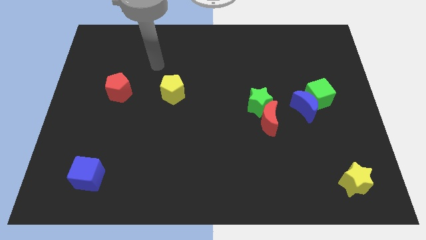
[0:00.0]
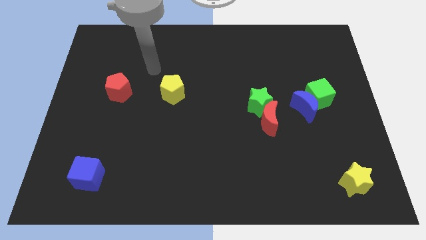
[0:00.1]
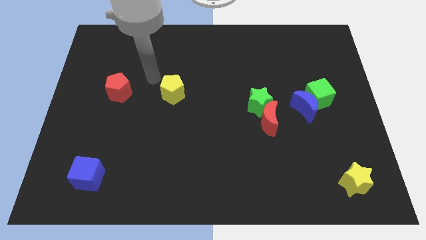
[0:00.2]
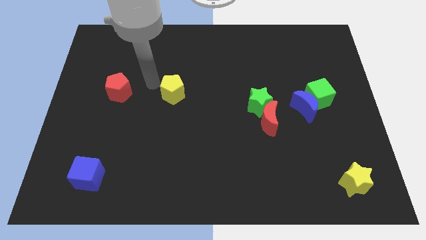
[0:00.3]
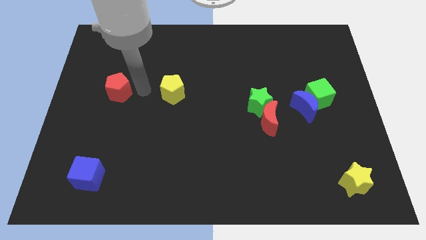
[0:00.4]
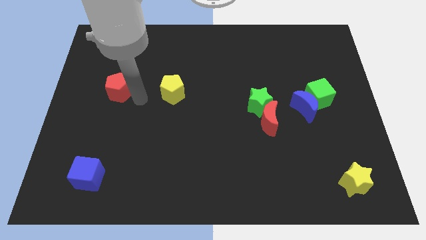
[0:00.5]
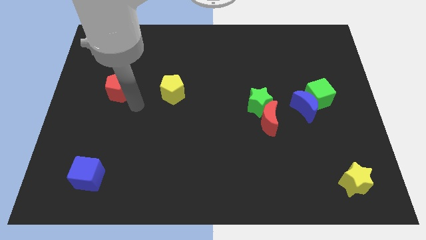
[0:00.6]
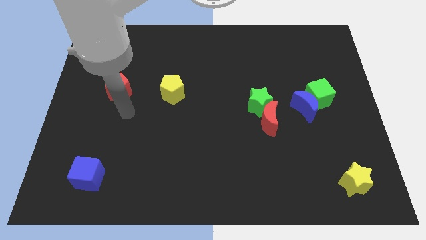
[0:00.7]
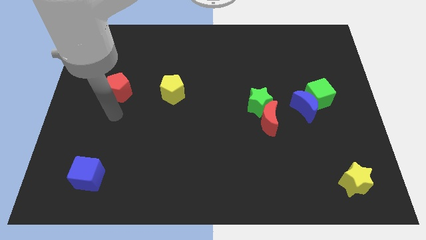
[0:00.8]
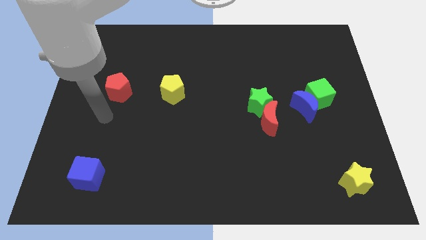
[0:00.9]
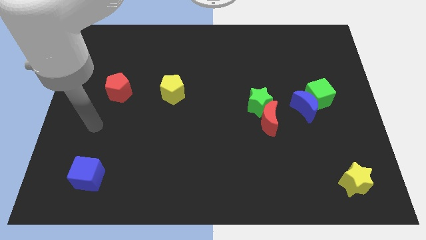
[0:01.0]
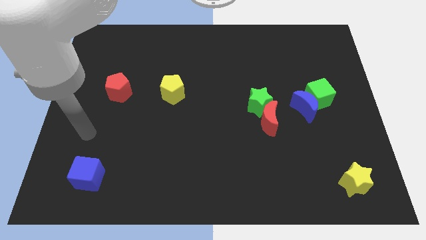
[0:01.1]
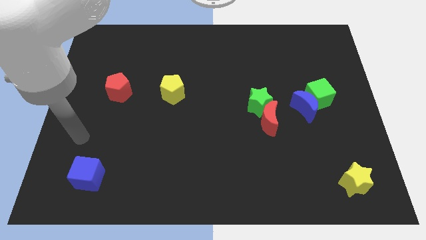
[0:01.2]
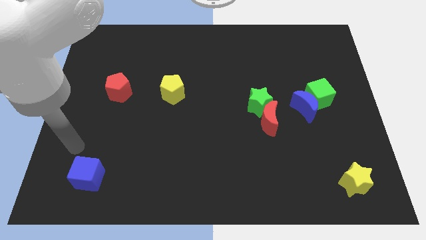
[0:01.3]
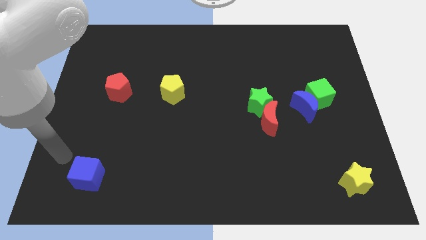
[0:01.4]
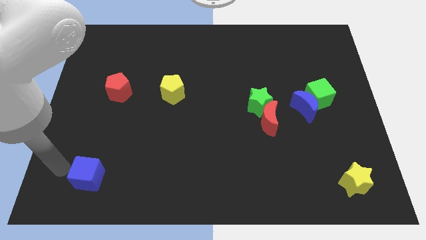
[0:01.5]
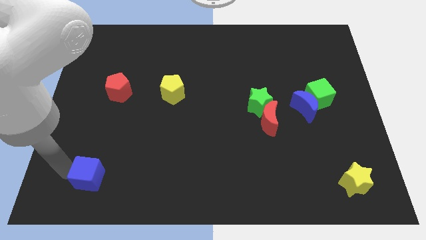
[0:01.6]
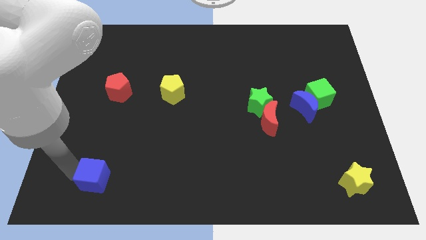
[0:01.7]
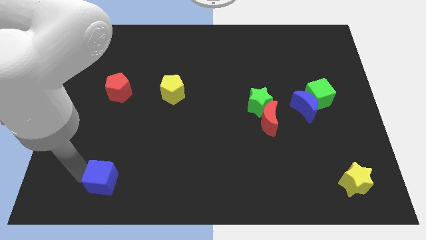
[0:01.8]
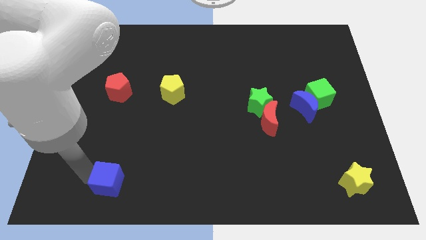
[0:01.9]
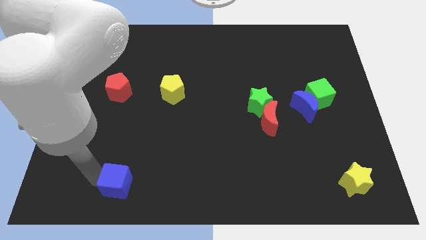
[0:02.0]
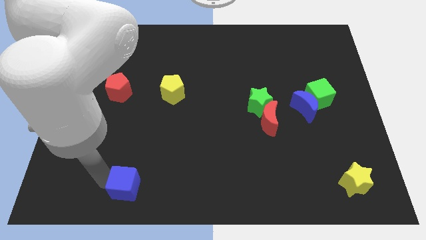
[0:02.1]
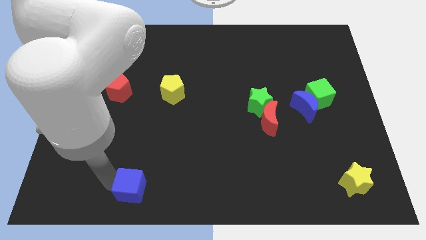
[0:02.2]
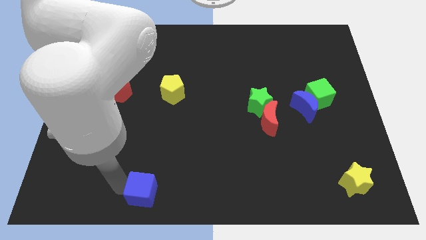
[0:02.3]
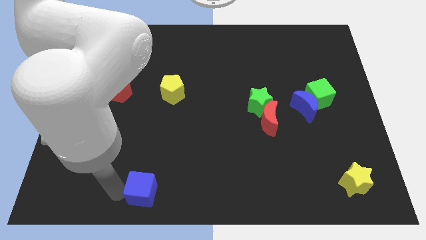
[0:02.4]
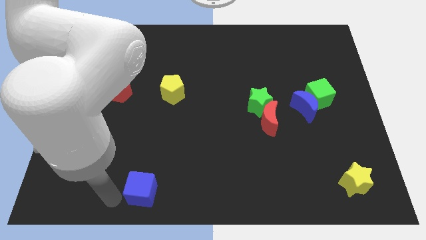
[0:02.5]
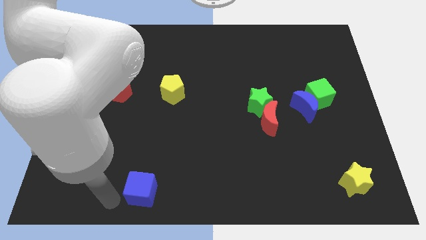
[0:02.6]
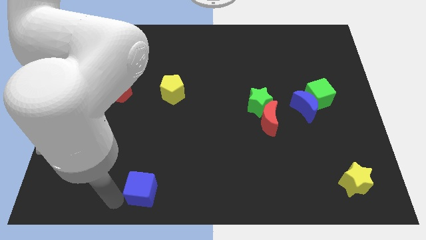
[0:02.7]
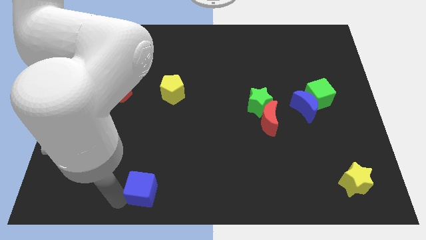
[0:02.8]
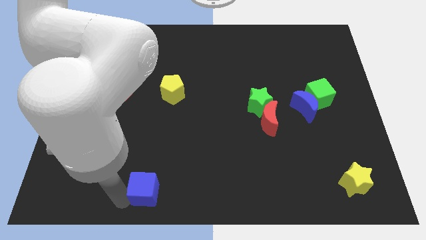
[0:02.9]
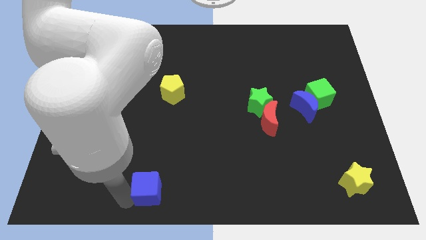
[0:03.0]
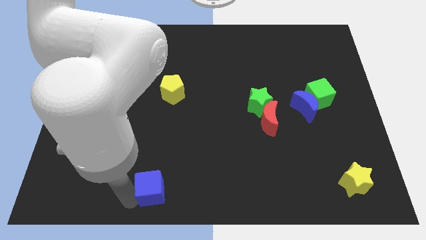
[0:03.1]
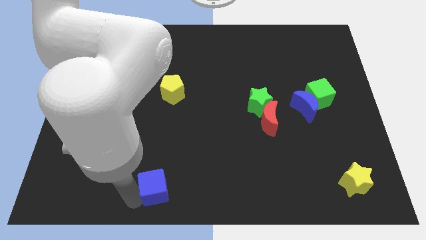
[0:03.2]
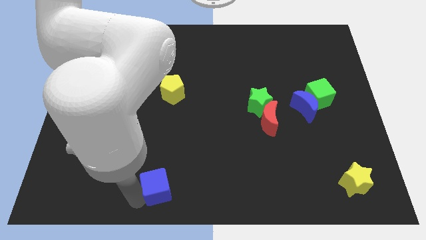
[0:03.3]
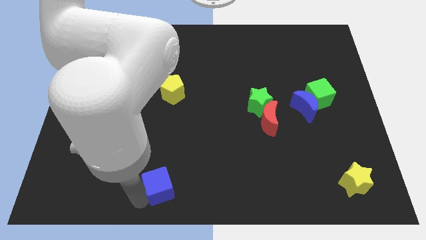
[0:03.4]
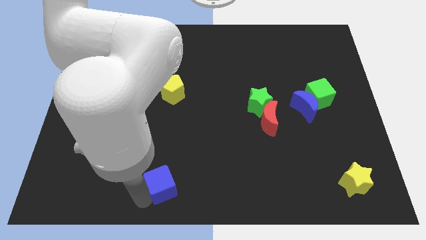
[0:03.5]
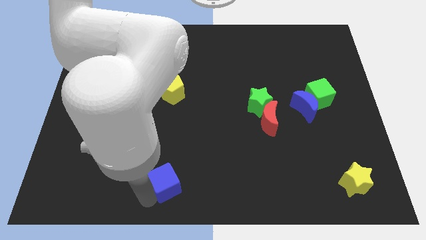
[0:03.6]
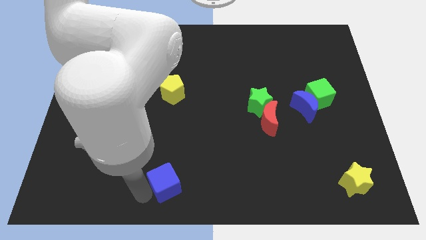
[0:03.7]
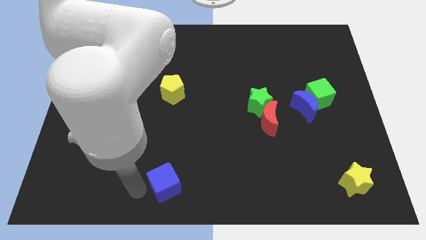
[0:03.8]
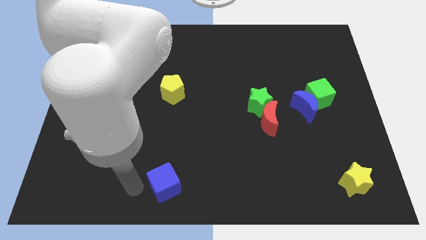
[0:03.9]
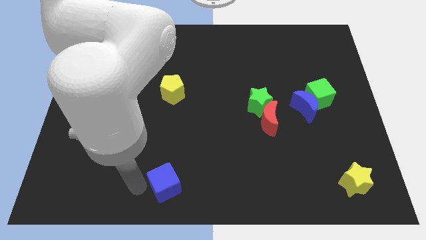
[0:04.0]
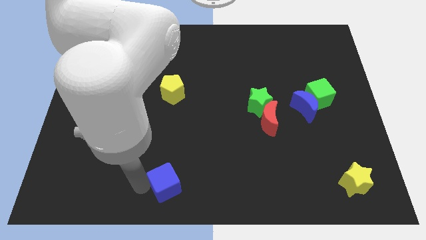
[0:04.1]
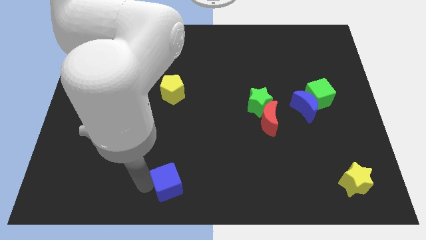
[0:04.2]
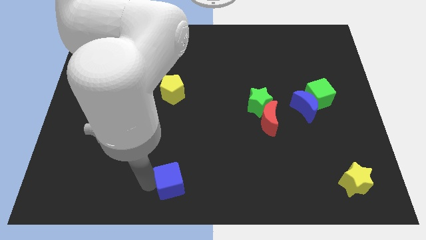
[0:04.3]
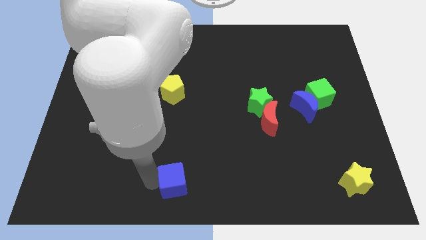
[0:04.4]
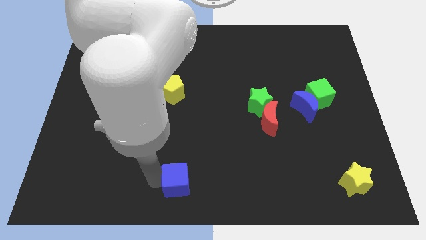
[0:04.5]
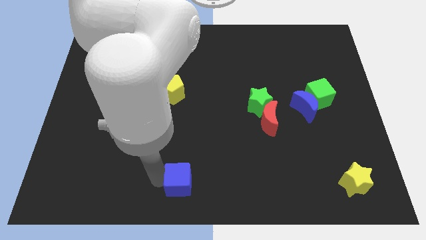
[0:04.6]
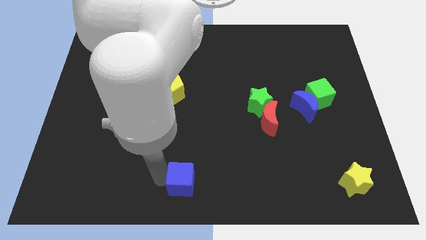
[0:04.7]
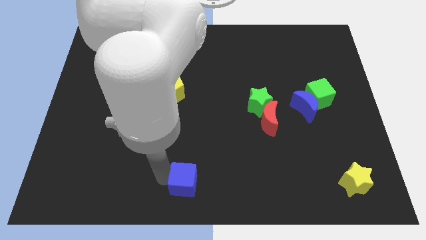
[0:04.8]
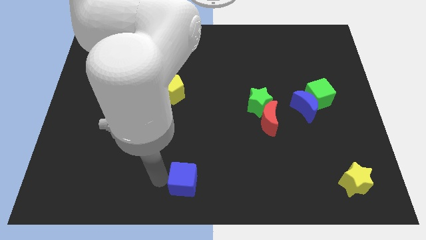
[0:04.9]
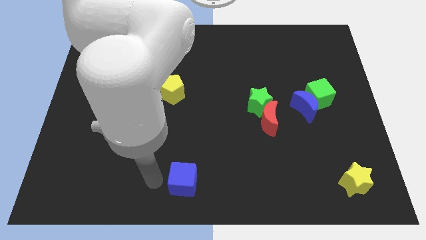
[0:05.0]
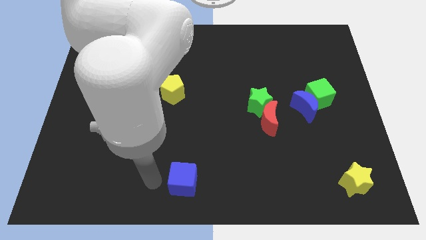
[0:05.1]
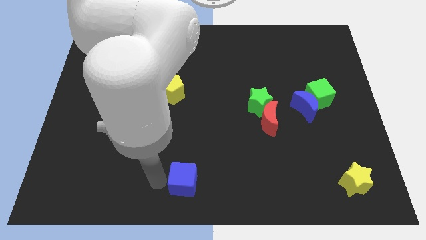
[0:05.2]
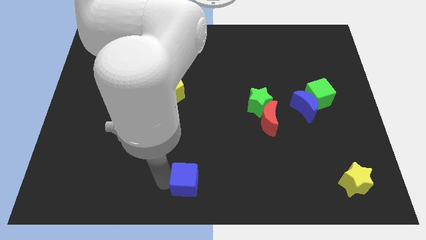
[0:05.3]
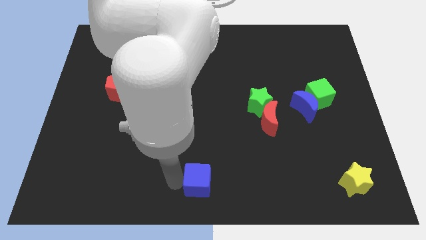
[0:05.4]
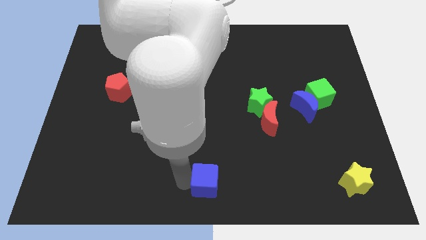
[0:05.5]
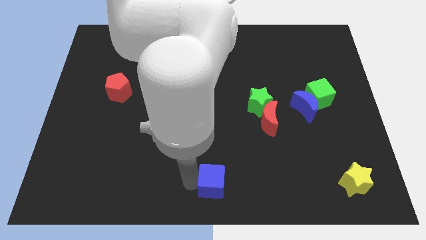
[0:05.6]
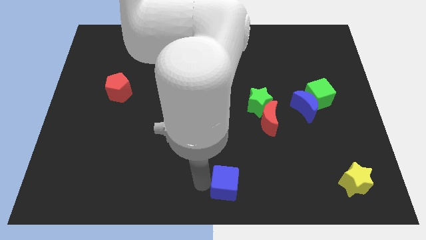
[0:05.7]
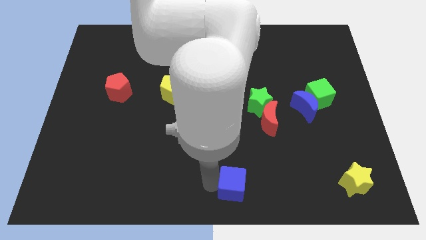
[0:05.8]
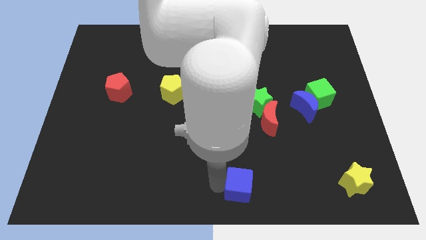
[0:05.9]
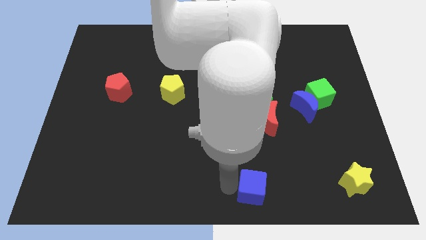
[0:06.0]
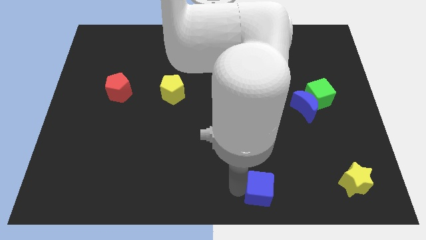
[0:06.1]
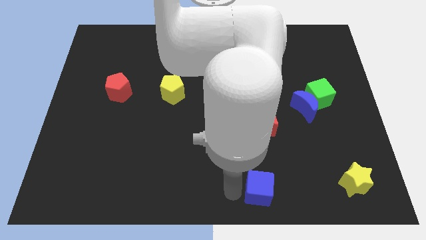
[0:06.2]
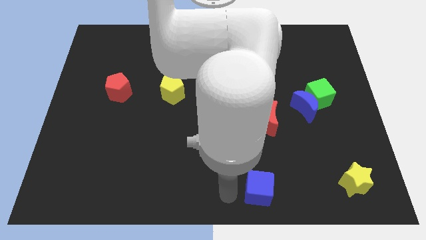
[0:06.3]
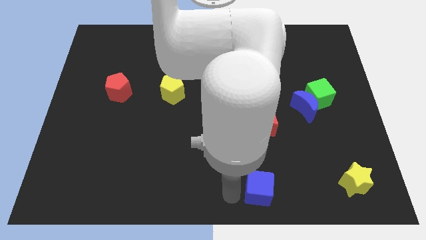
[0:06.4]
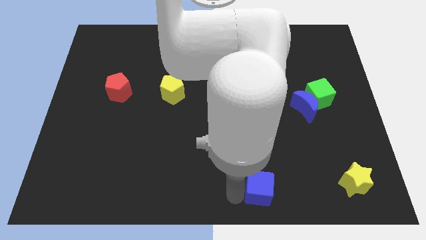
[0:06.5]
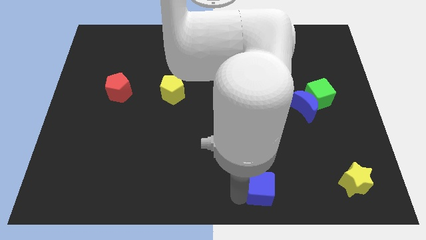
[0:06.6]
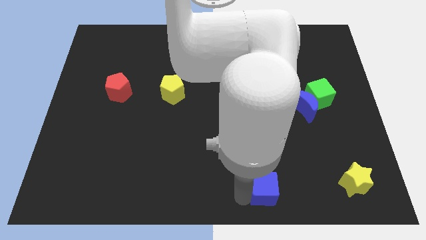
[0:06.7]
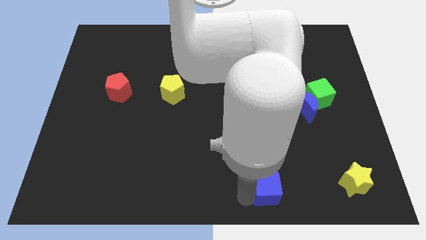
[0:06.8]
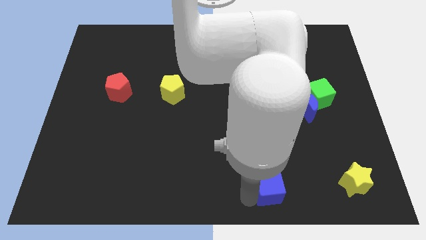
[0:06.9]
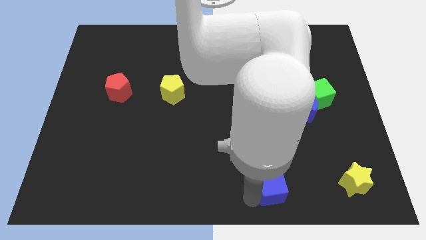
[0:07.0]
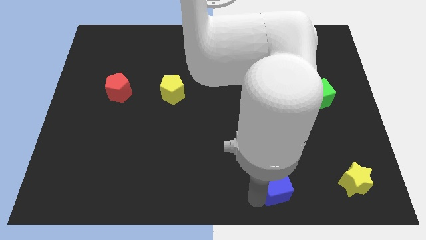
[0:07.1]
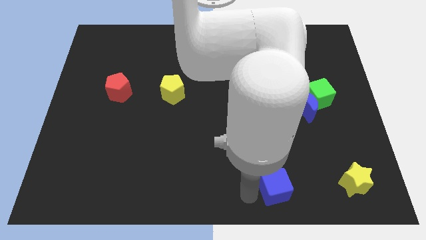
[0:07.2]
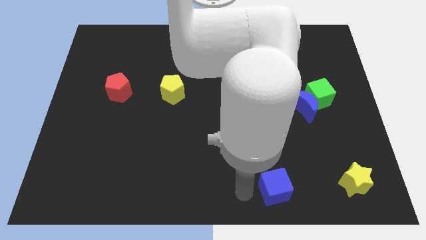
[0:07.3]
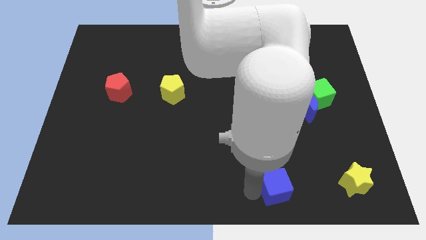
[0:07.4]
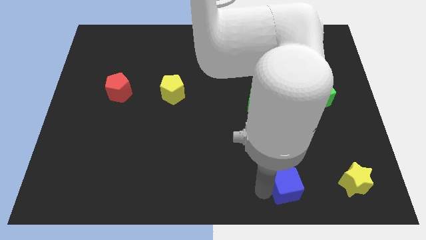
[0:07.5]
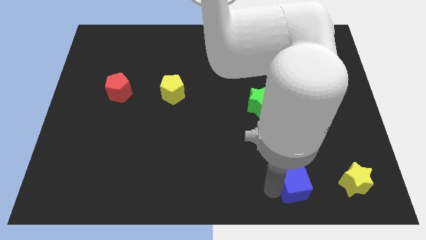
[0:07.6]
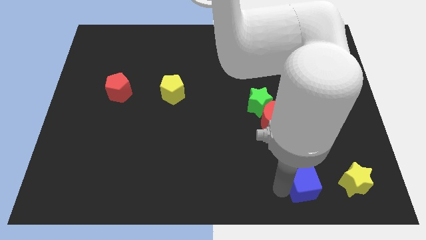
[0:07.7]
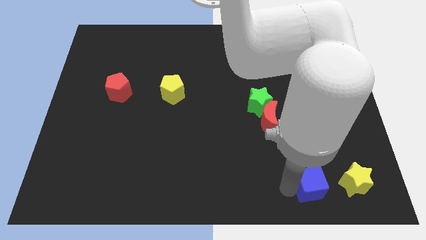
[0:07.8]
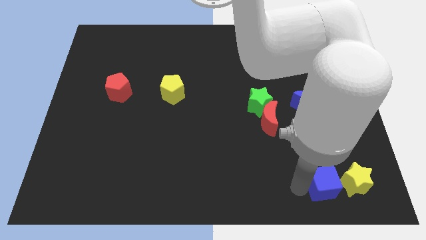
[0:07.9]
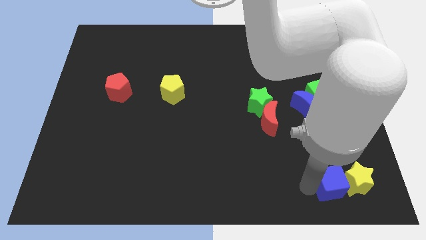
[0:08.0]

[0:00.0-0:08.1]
move the blue cube to the yellow star
